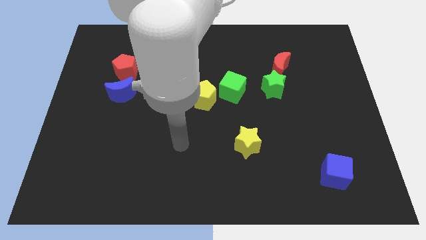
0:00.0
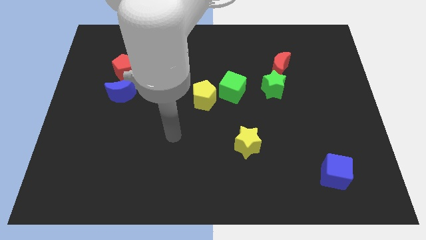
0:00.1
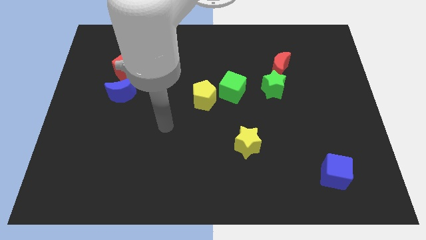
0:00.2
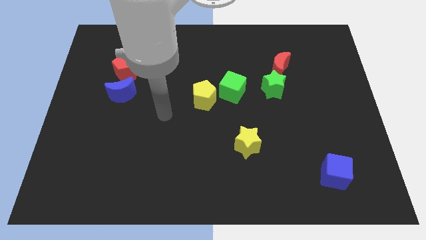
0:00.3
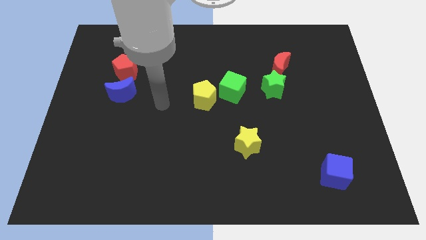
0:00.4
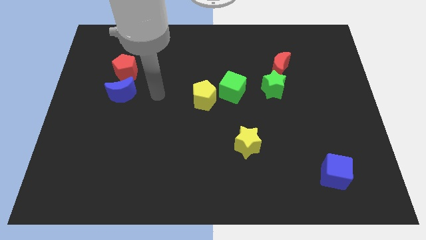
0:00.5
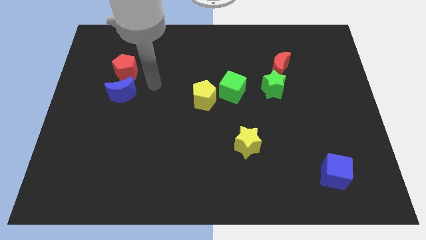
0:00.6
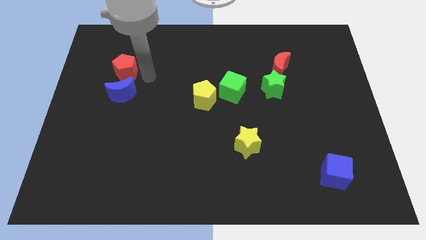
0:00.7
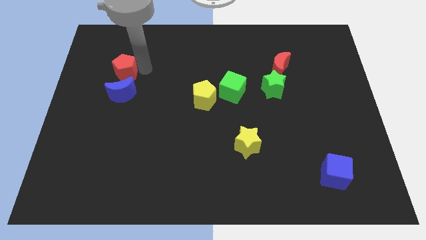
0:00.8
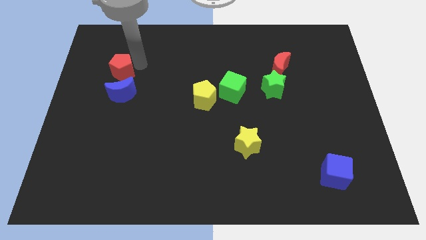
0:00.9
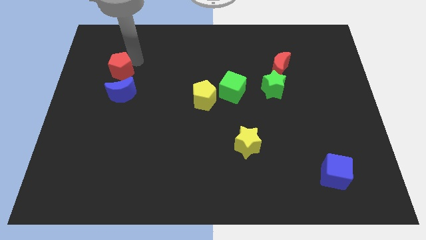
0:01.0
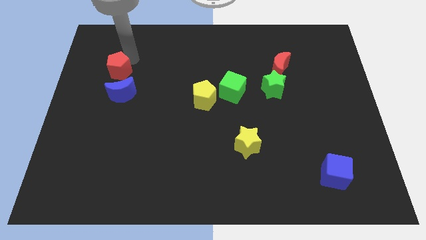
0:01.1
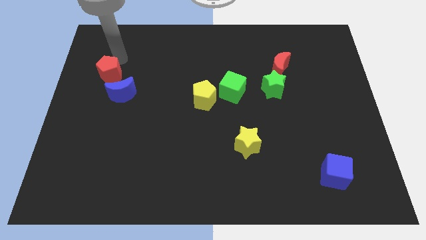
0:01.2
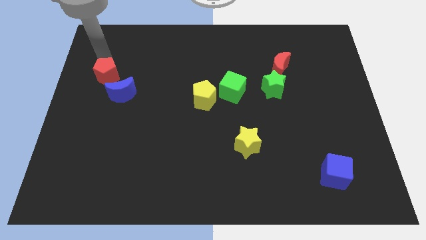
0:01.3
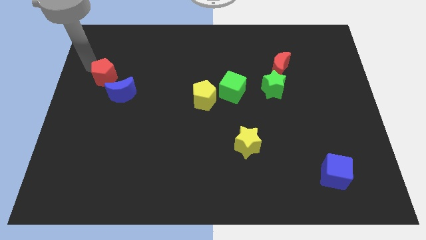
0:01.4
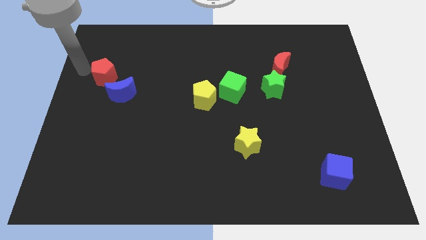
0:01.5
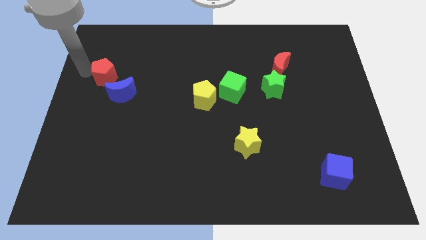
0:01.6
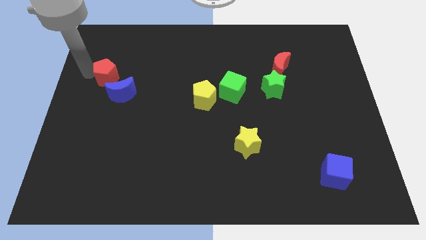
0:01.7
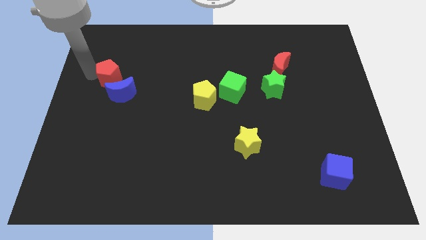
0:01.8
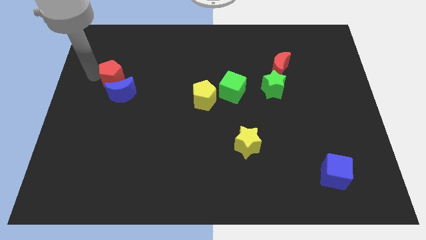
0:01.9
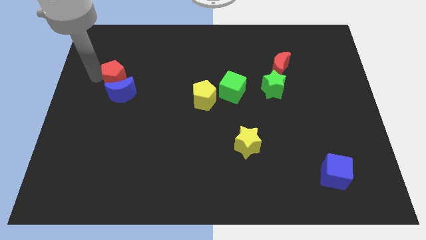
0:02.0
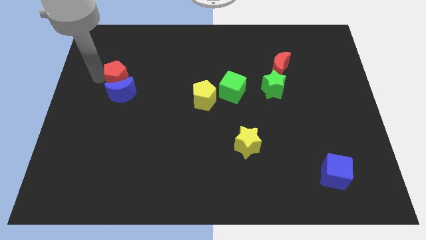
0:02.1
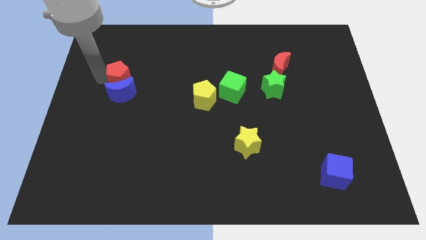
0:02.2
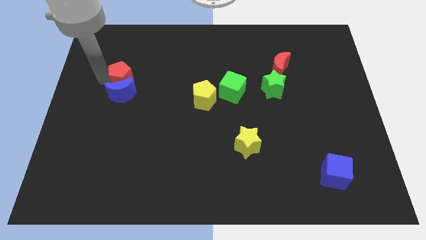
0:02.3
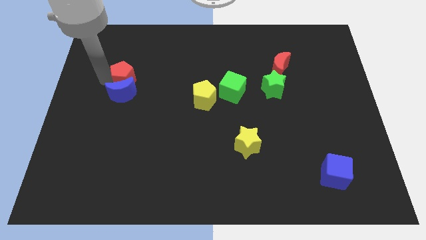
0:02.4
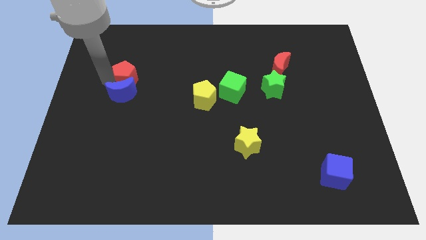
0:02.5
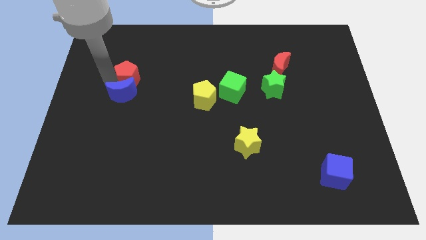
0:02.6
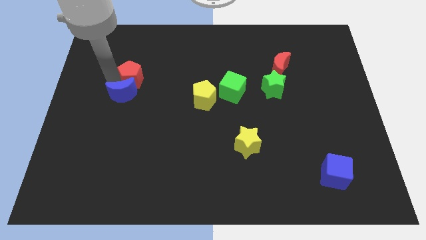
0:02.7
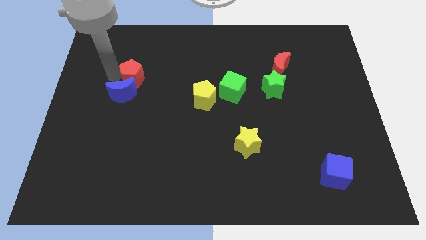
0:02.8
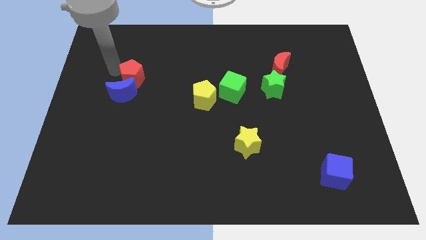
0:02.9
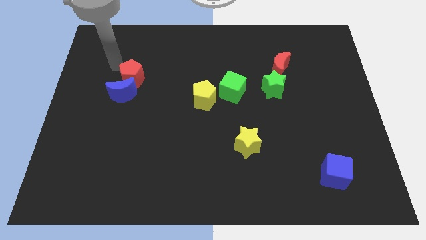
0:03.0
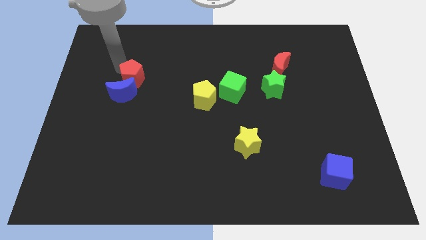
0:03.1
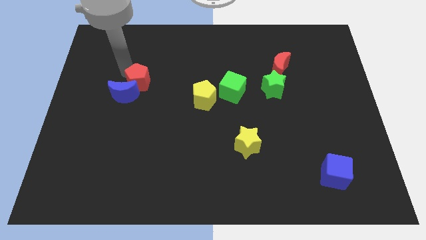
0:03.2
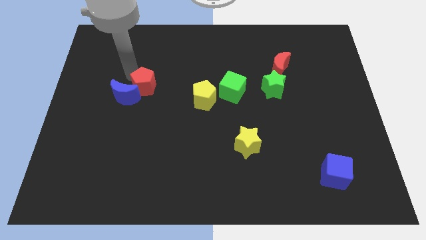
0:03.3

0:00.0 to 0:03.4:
slide the red pentagon slightly down and to the right

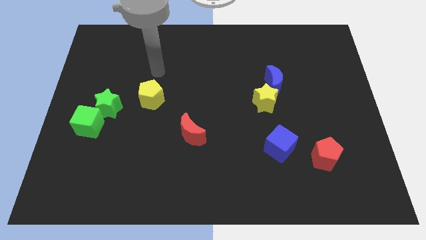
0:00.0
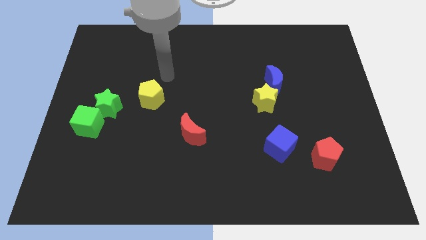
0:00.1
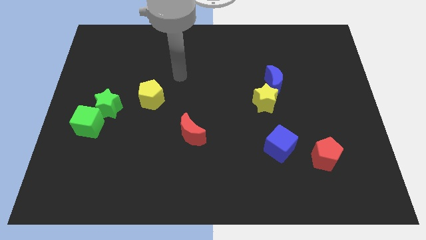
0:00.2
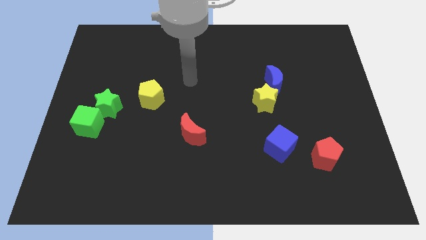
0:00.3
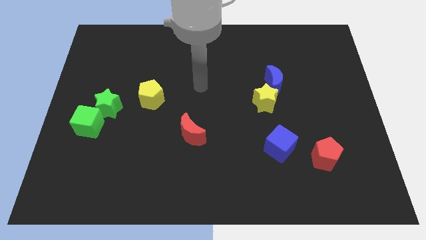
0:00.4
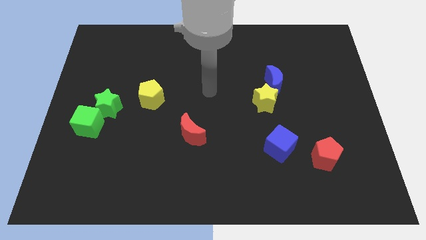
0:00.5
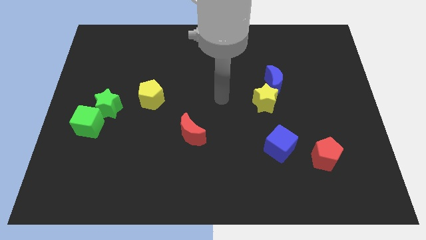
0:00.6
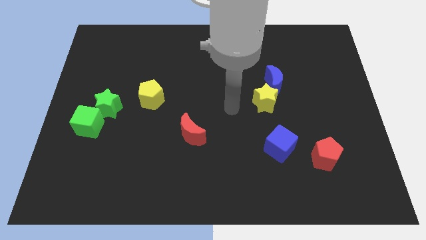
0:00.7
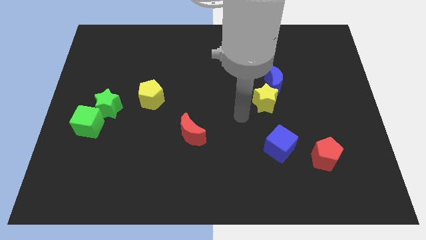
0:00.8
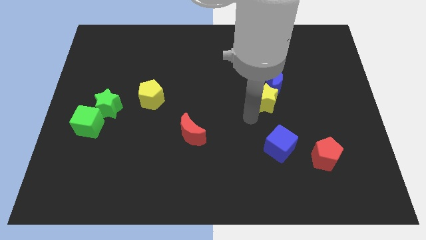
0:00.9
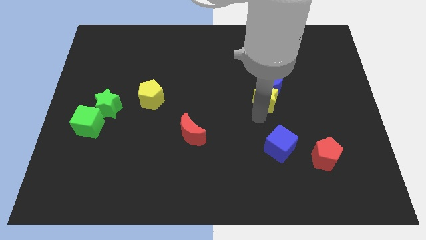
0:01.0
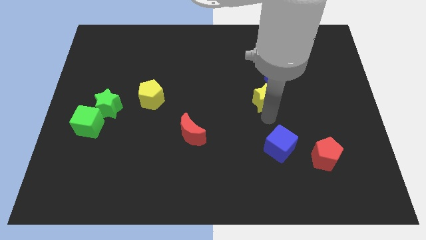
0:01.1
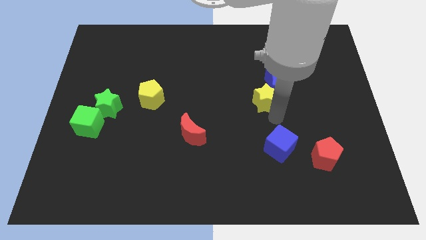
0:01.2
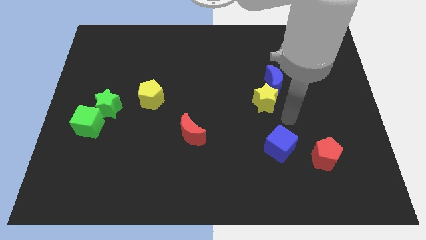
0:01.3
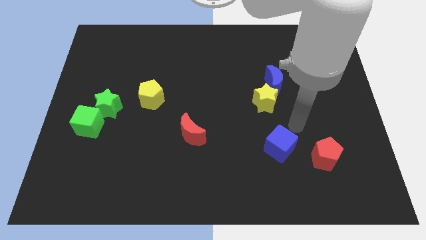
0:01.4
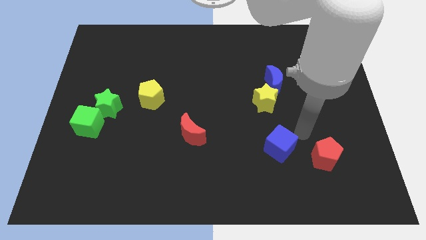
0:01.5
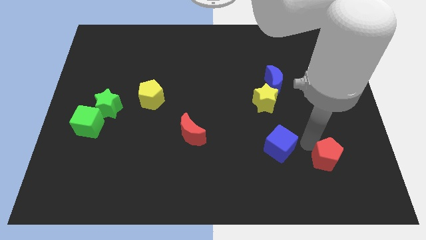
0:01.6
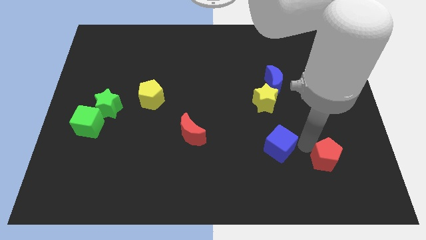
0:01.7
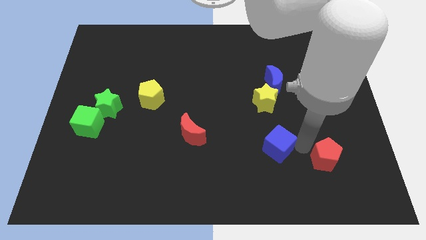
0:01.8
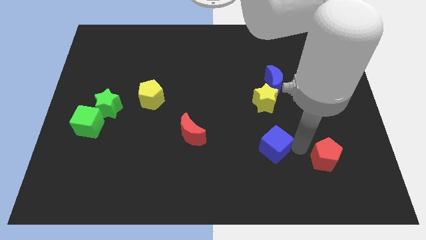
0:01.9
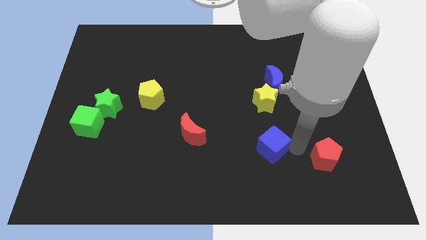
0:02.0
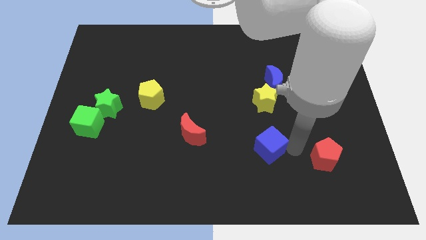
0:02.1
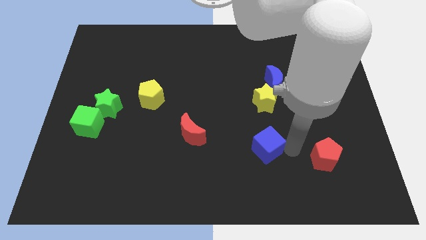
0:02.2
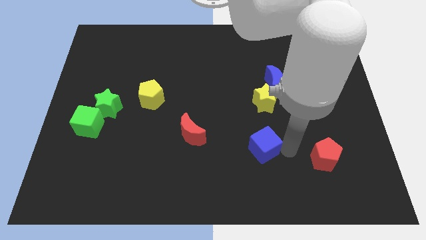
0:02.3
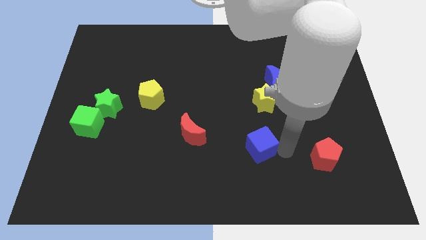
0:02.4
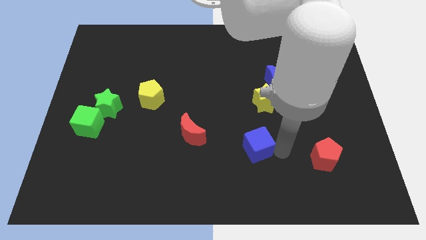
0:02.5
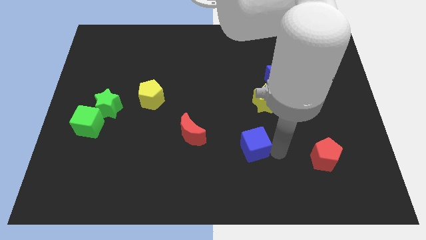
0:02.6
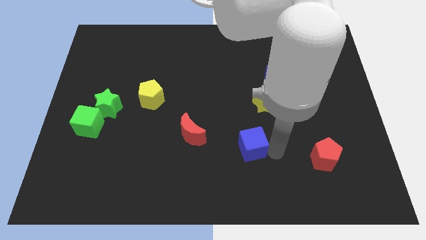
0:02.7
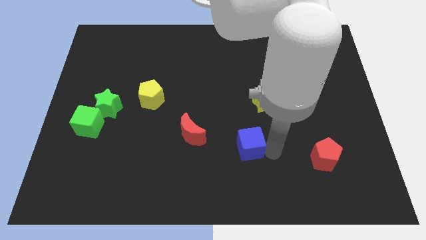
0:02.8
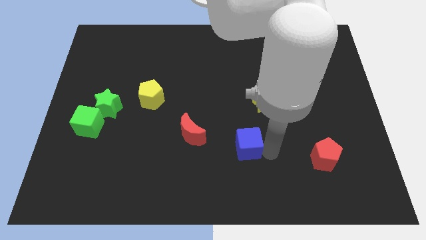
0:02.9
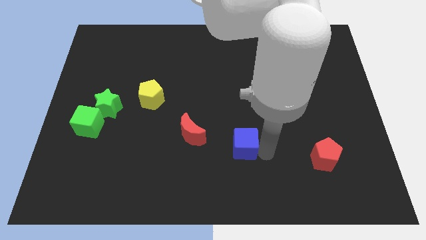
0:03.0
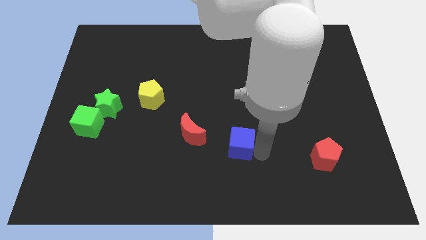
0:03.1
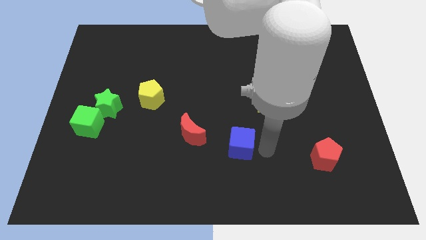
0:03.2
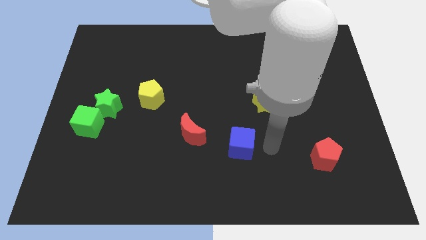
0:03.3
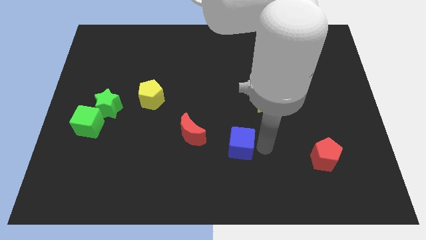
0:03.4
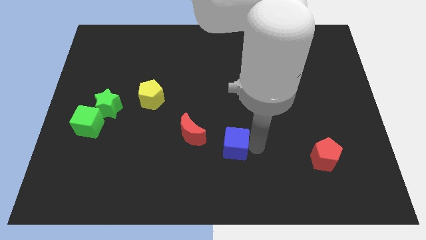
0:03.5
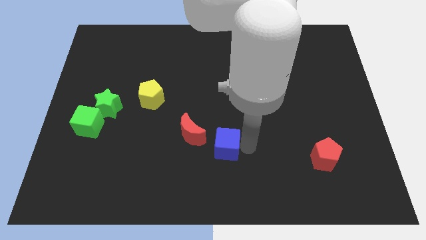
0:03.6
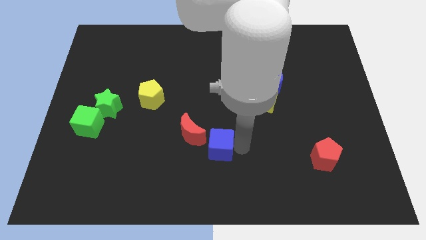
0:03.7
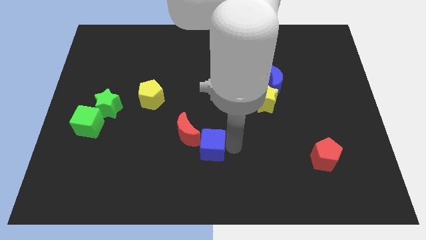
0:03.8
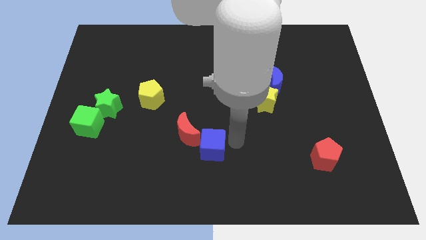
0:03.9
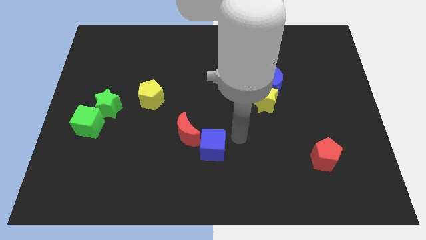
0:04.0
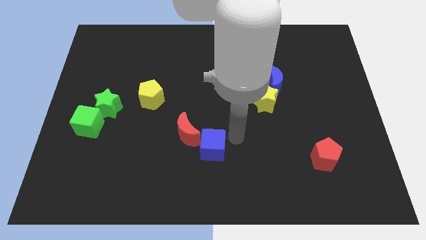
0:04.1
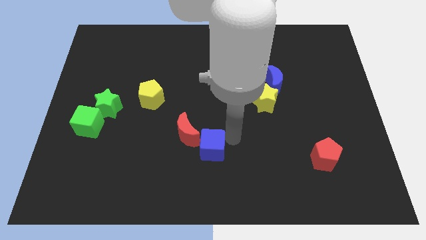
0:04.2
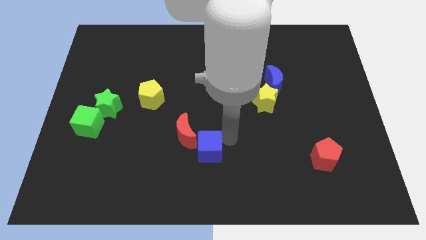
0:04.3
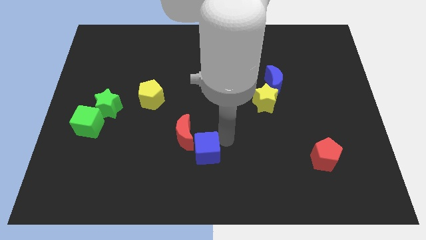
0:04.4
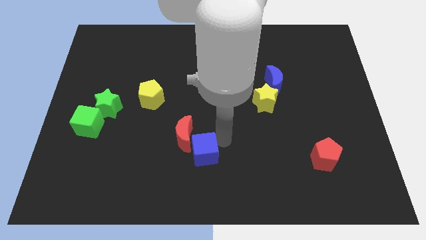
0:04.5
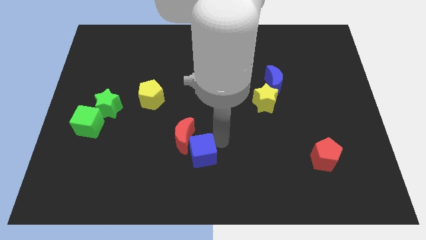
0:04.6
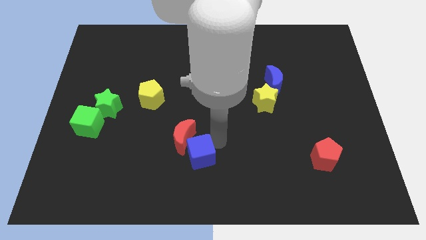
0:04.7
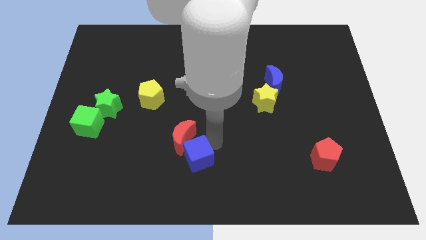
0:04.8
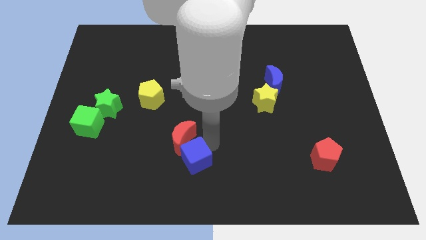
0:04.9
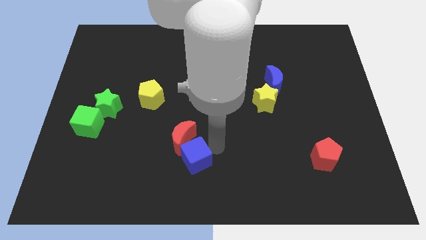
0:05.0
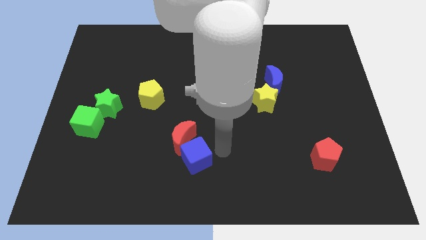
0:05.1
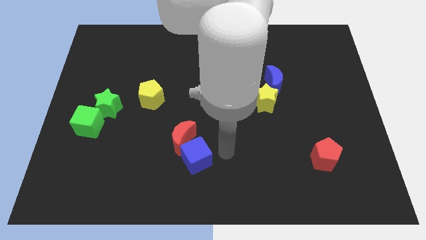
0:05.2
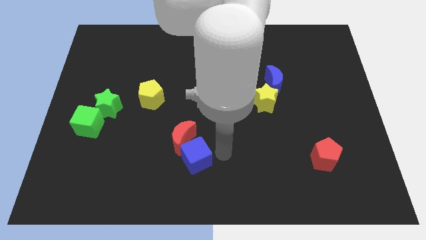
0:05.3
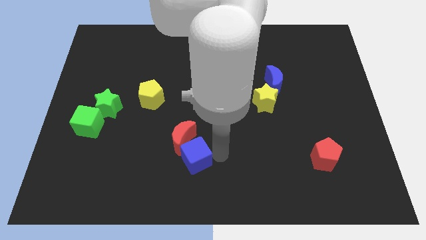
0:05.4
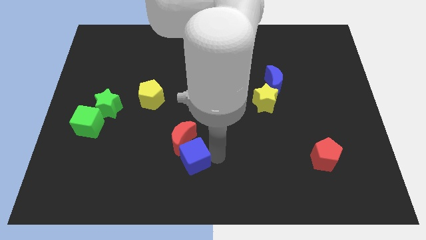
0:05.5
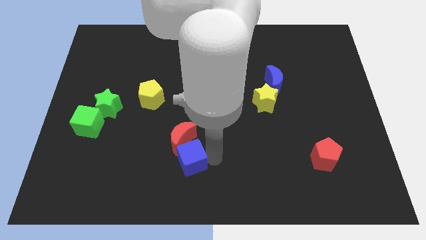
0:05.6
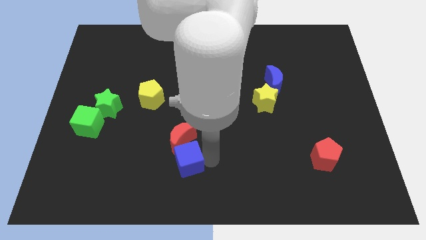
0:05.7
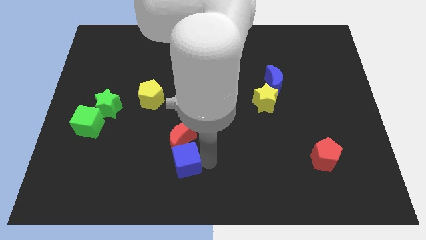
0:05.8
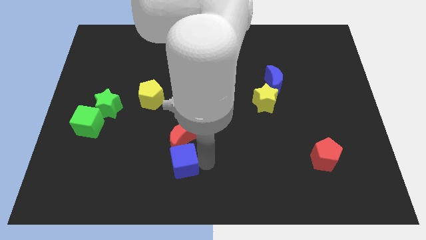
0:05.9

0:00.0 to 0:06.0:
move the blue cube to the left
